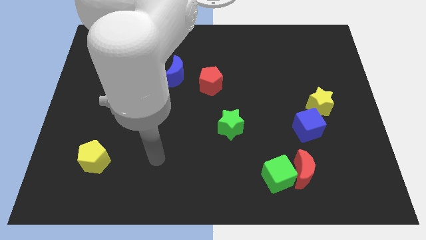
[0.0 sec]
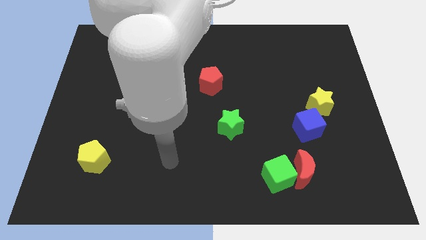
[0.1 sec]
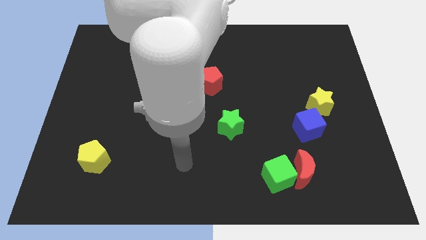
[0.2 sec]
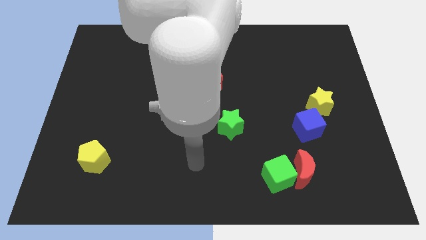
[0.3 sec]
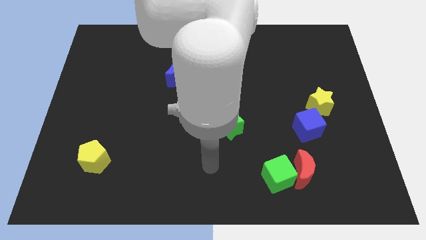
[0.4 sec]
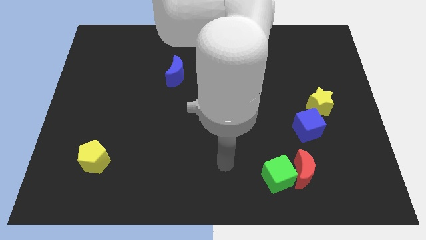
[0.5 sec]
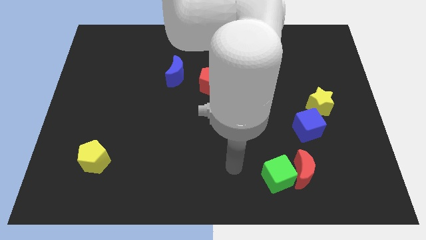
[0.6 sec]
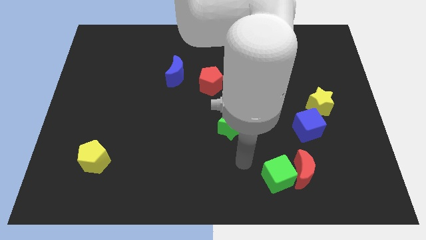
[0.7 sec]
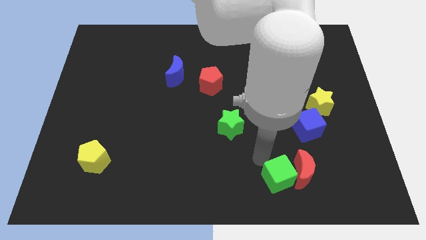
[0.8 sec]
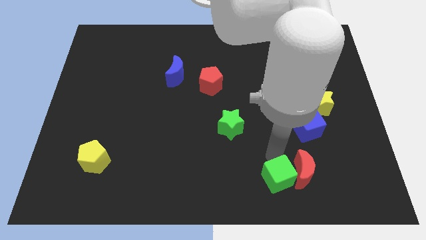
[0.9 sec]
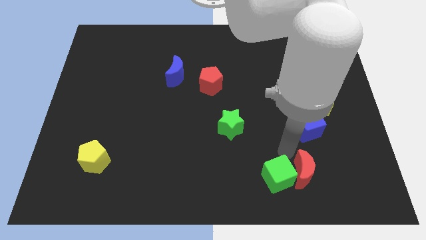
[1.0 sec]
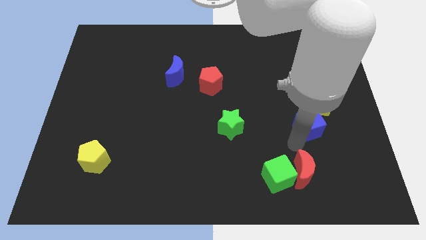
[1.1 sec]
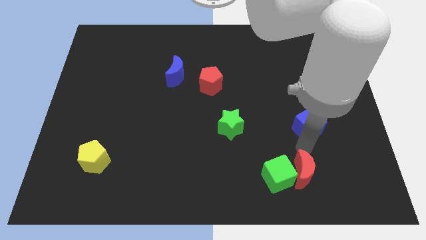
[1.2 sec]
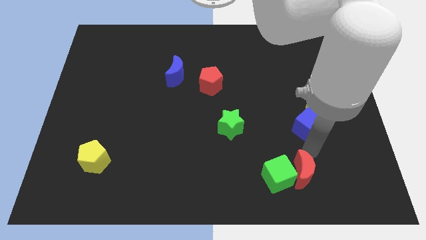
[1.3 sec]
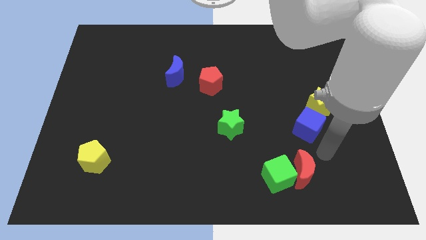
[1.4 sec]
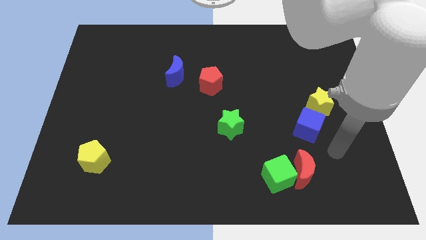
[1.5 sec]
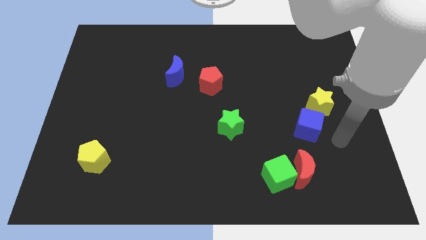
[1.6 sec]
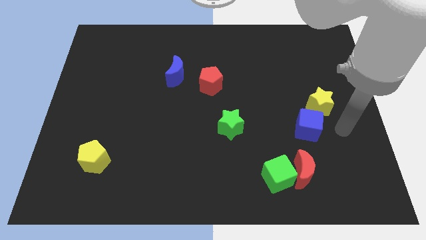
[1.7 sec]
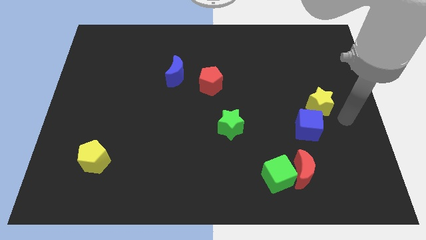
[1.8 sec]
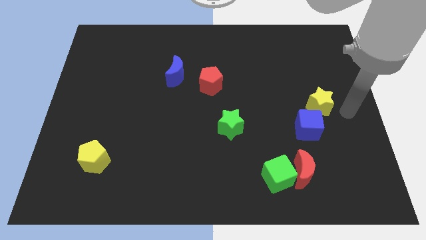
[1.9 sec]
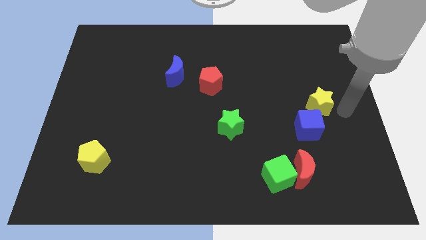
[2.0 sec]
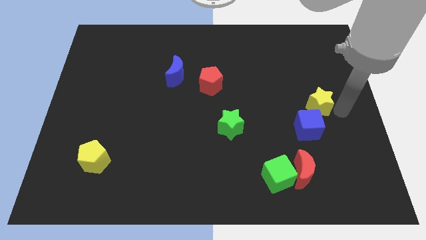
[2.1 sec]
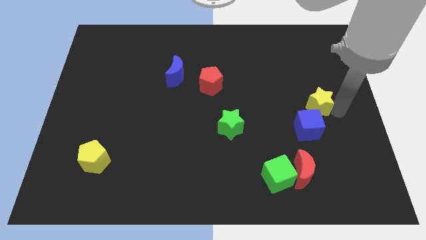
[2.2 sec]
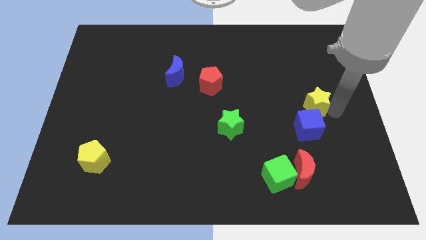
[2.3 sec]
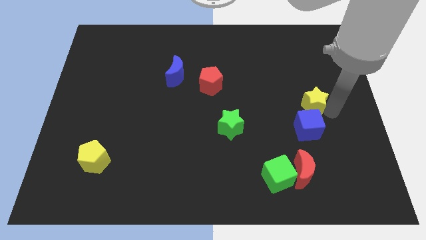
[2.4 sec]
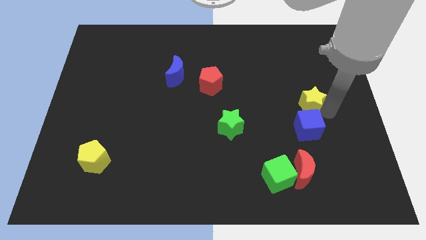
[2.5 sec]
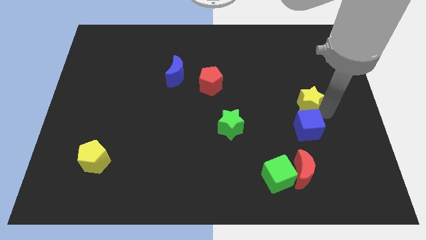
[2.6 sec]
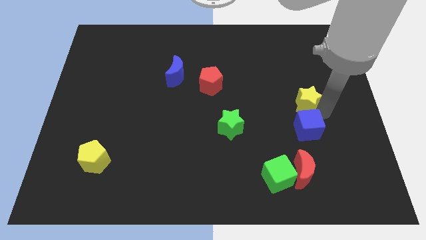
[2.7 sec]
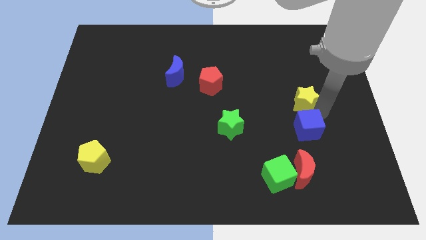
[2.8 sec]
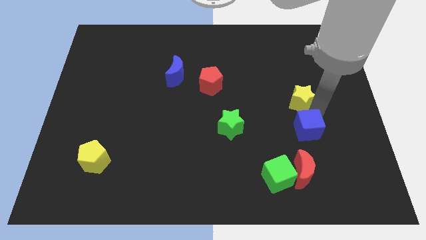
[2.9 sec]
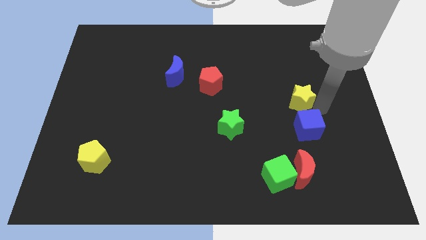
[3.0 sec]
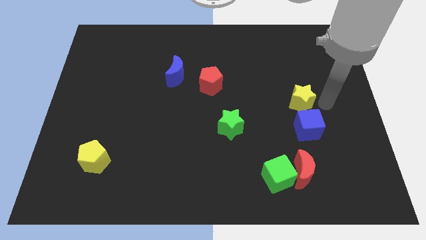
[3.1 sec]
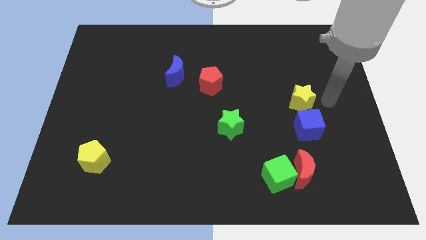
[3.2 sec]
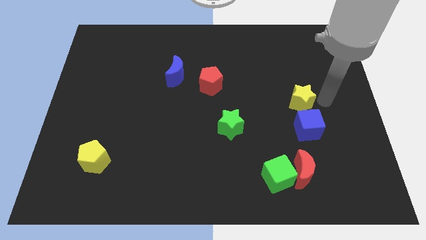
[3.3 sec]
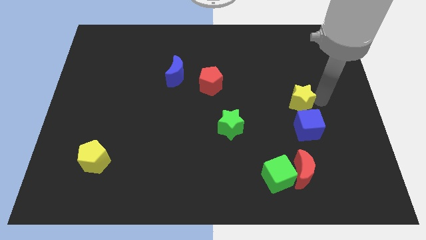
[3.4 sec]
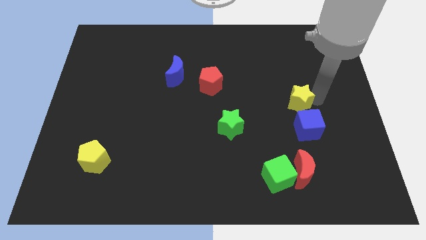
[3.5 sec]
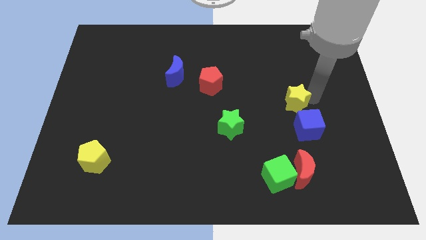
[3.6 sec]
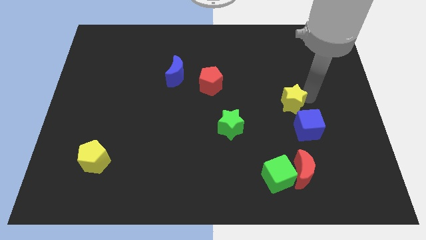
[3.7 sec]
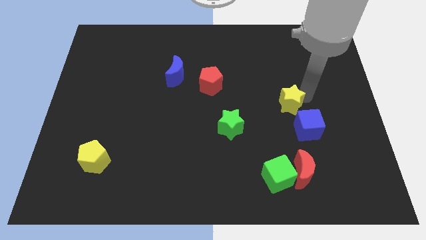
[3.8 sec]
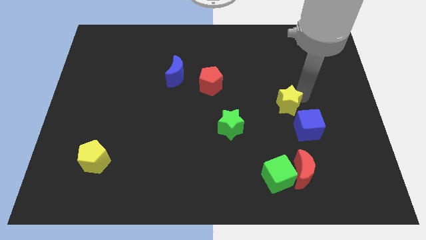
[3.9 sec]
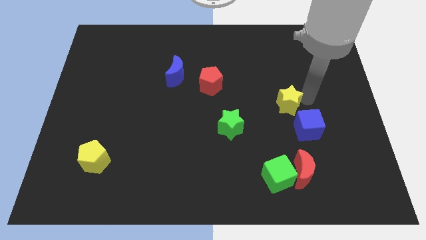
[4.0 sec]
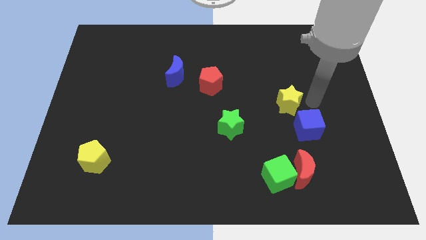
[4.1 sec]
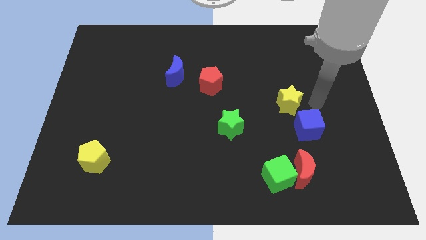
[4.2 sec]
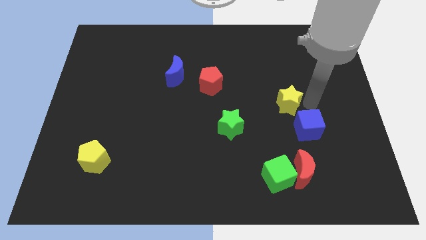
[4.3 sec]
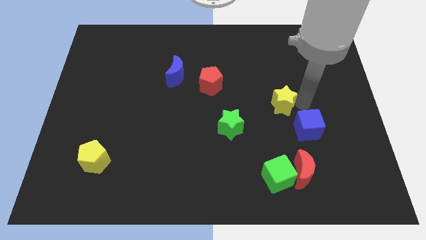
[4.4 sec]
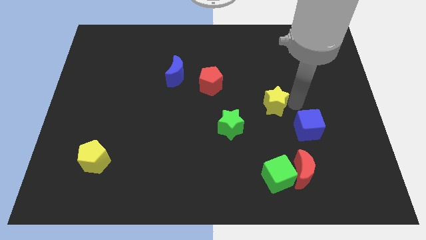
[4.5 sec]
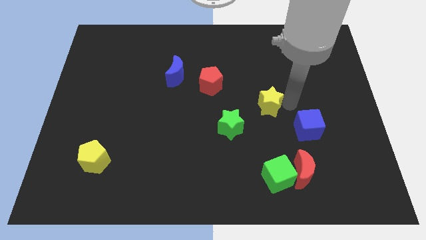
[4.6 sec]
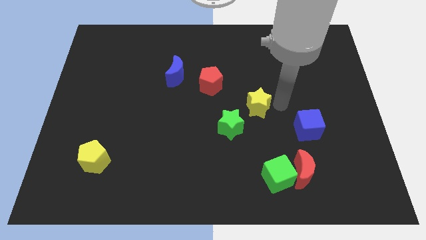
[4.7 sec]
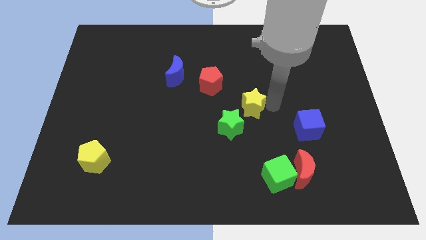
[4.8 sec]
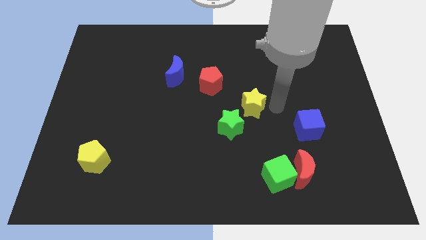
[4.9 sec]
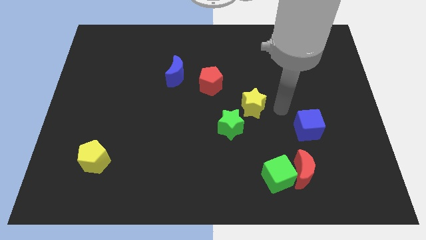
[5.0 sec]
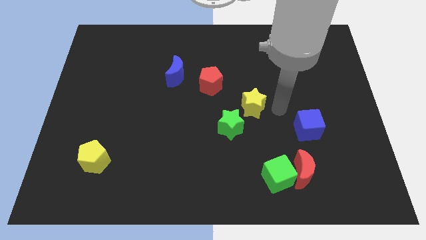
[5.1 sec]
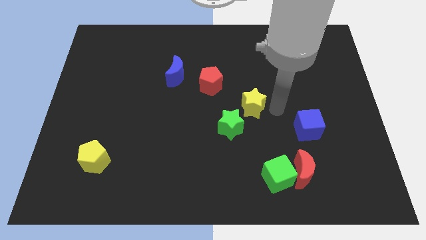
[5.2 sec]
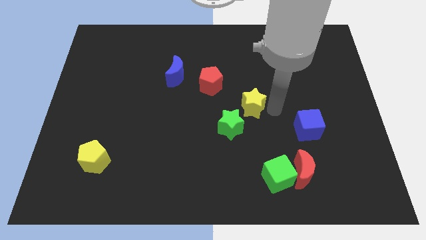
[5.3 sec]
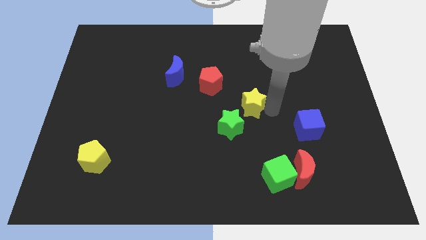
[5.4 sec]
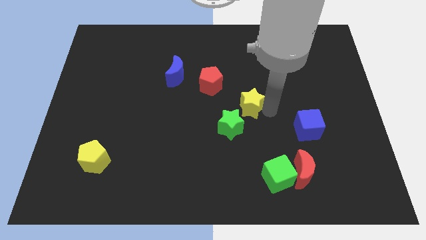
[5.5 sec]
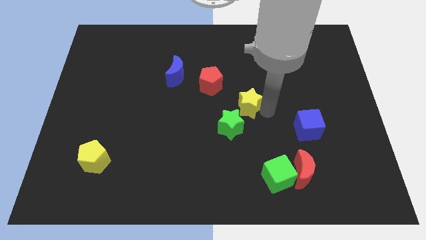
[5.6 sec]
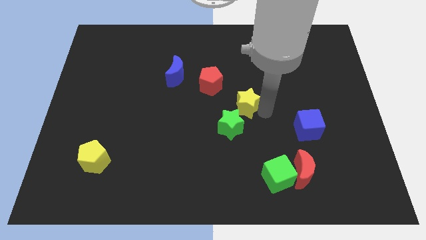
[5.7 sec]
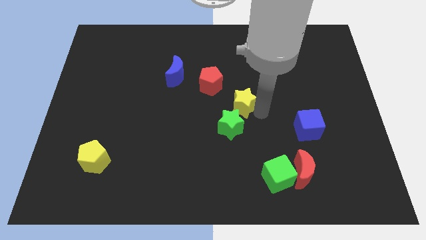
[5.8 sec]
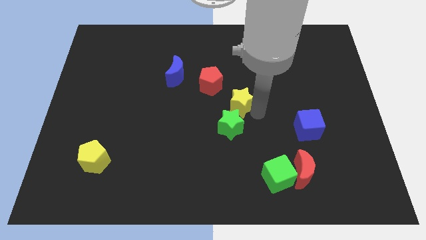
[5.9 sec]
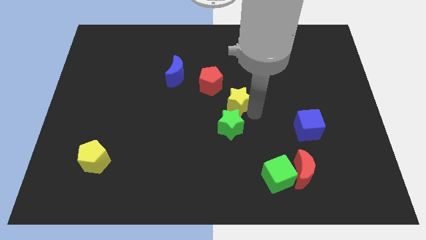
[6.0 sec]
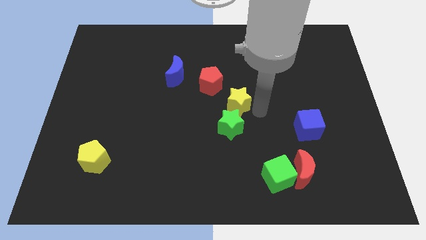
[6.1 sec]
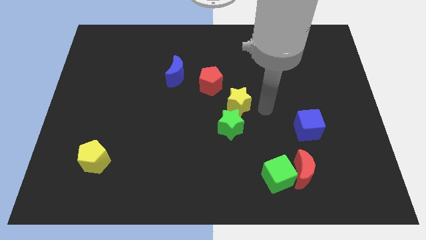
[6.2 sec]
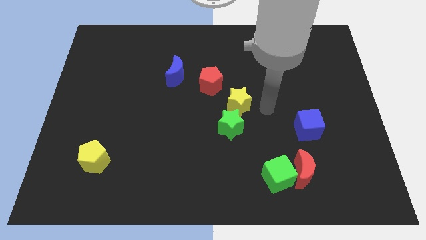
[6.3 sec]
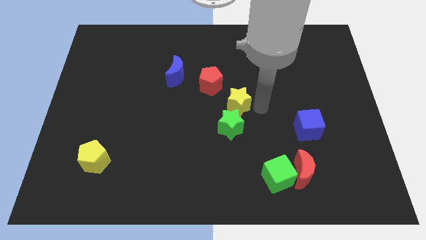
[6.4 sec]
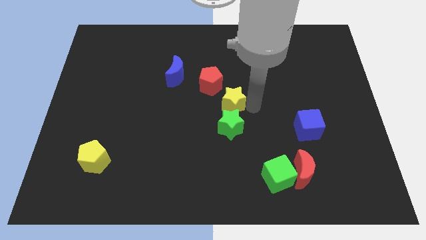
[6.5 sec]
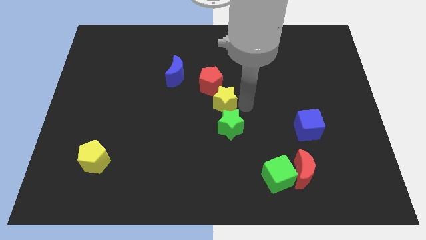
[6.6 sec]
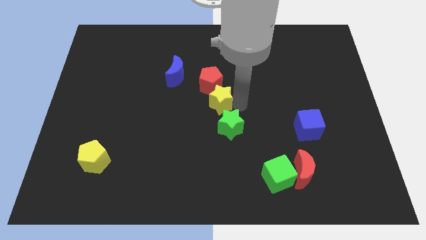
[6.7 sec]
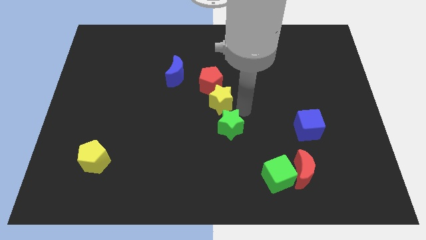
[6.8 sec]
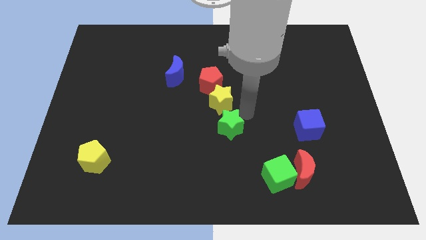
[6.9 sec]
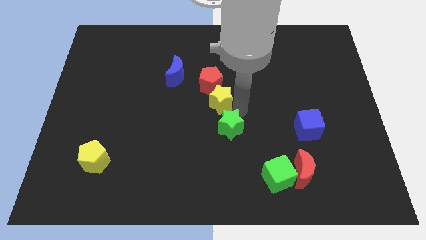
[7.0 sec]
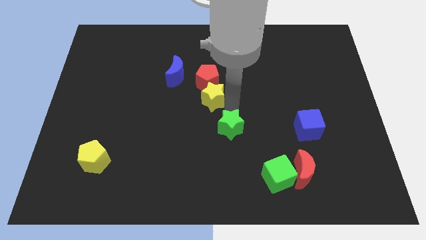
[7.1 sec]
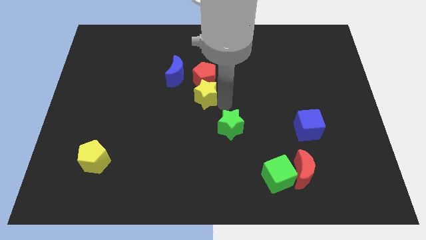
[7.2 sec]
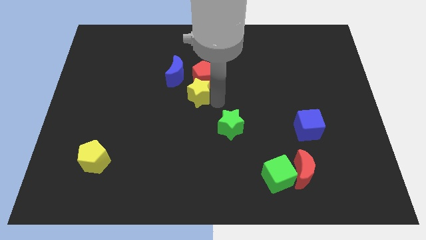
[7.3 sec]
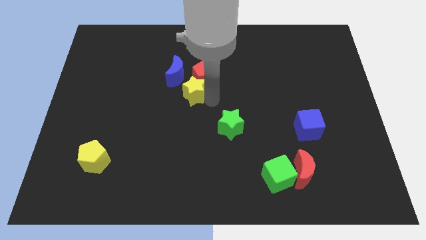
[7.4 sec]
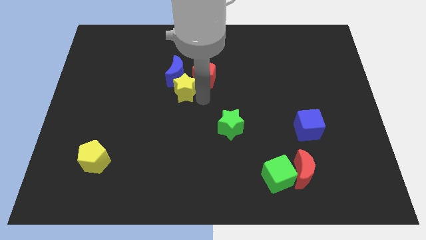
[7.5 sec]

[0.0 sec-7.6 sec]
put the yellow star towards the blue moon
